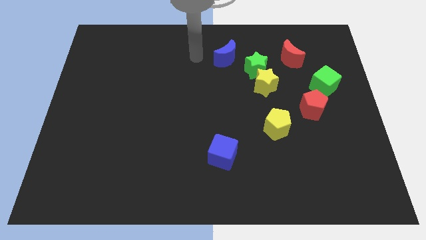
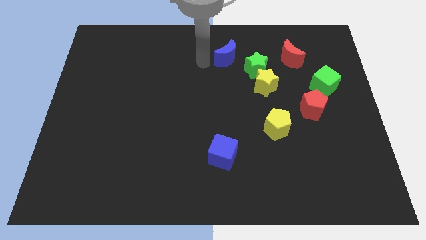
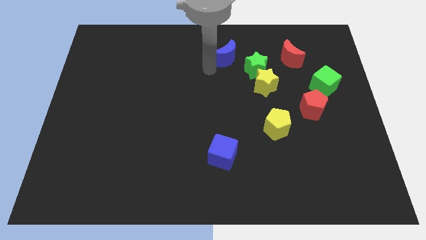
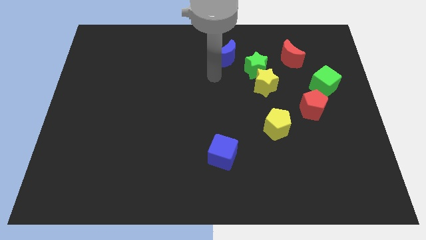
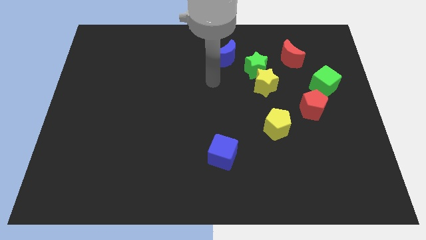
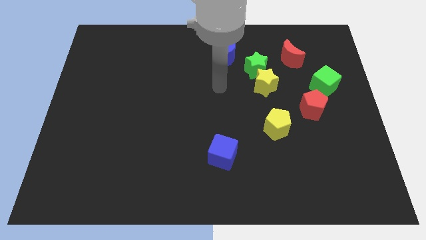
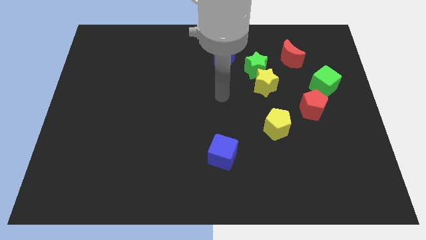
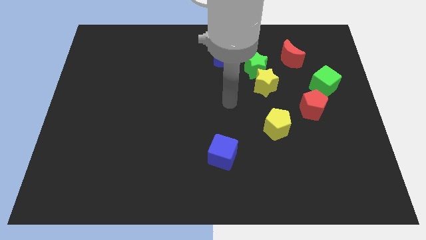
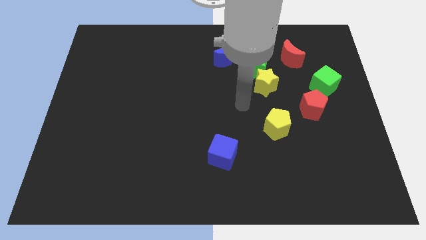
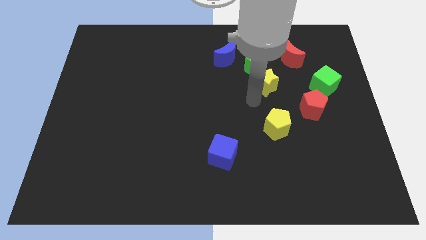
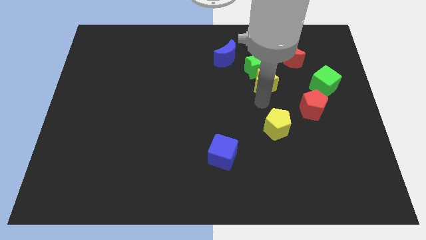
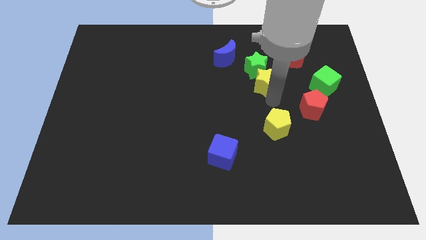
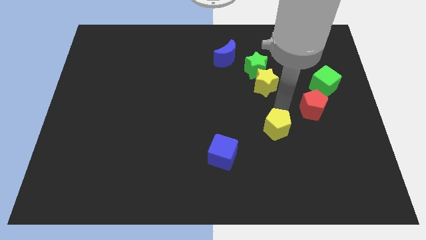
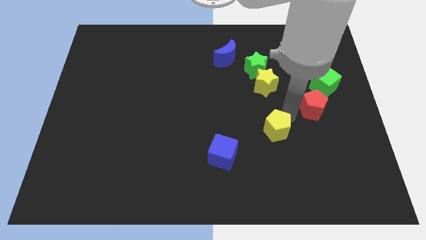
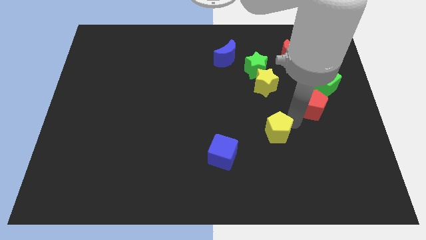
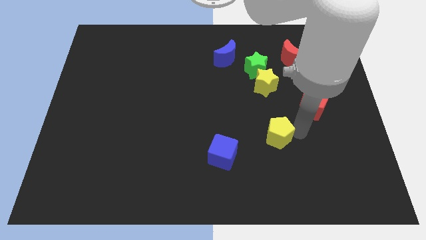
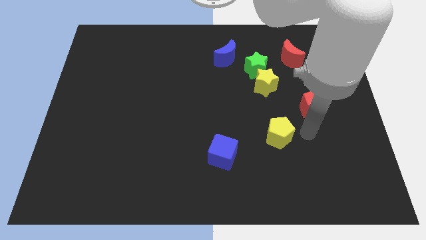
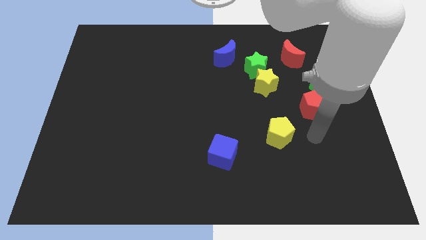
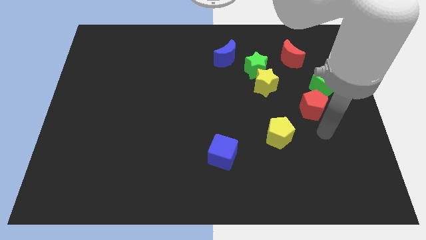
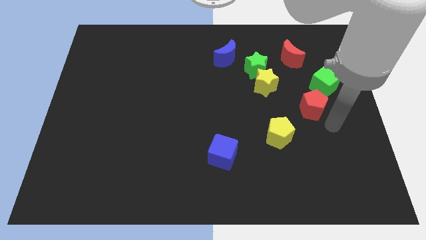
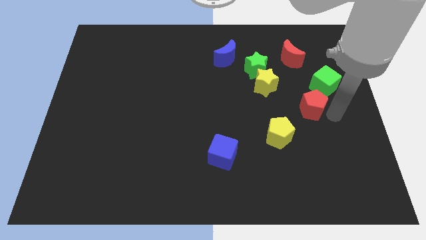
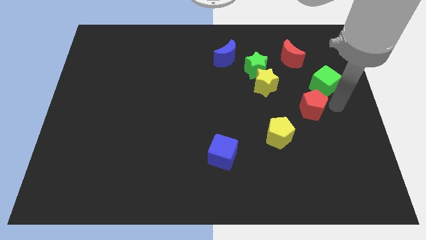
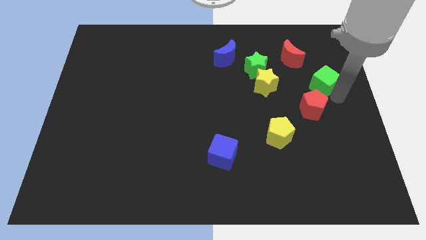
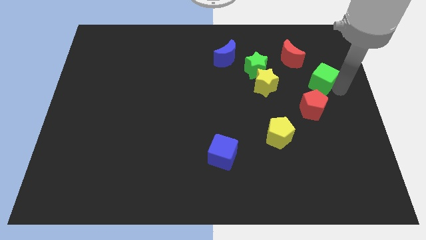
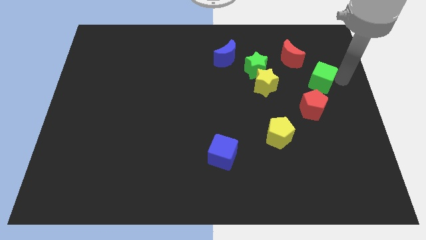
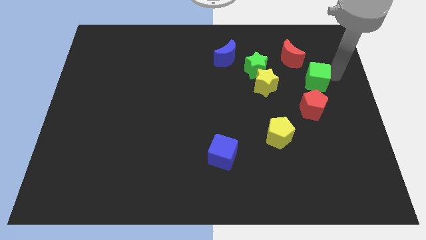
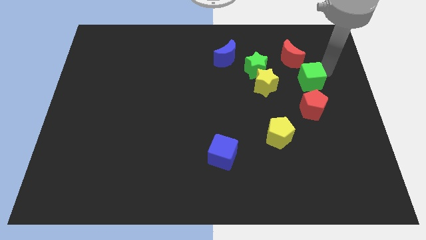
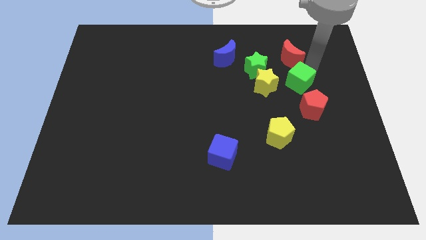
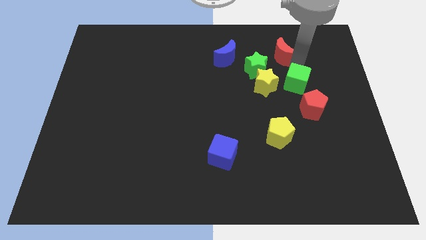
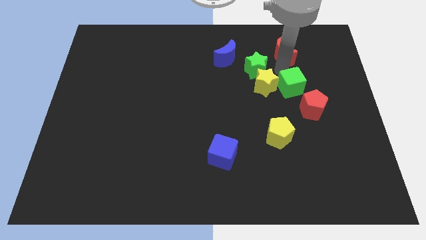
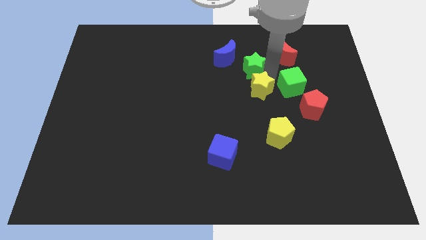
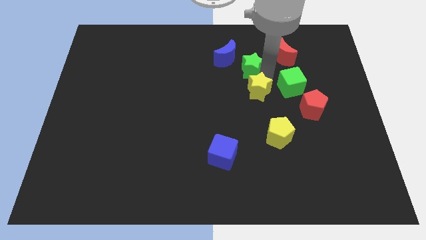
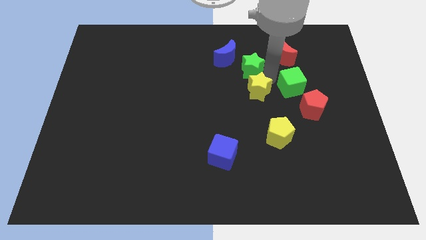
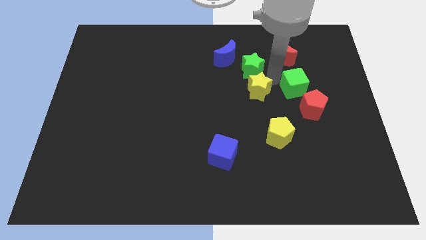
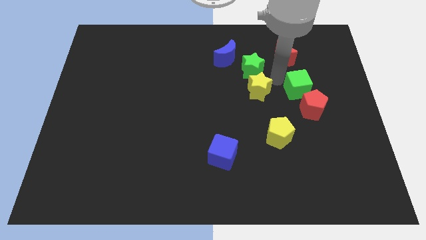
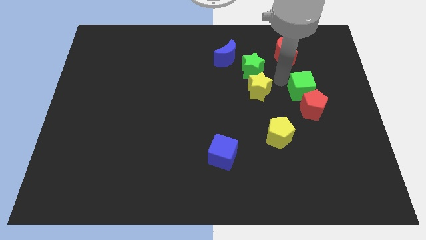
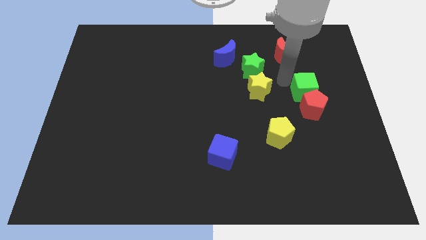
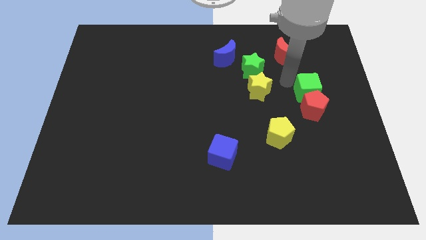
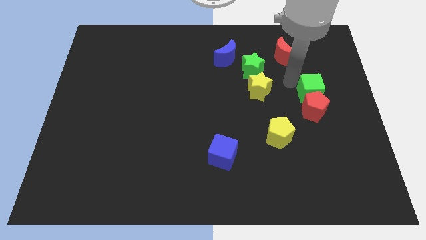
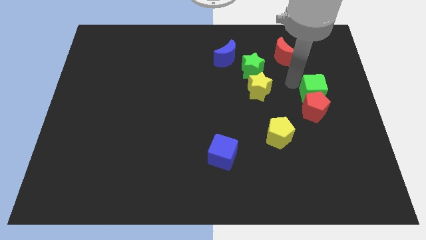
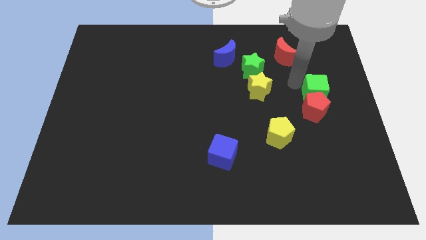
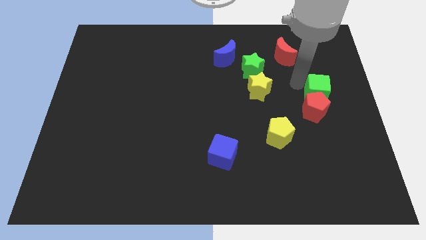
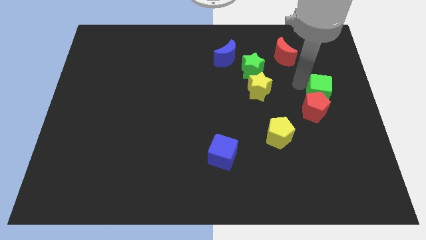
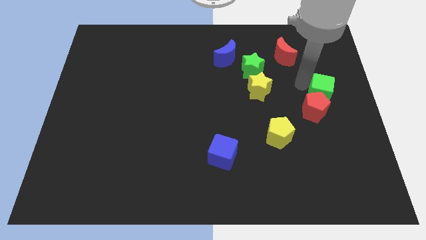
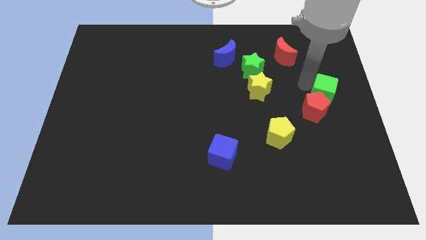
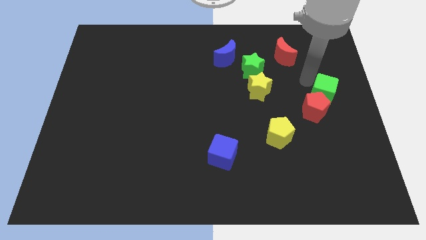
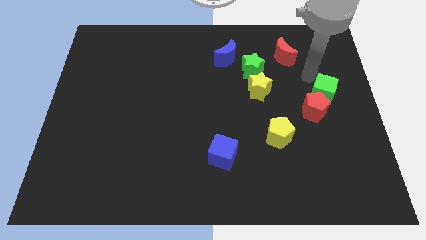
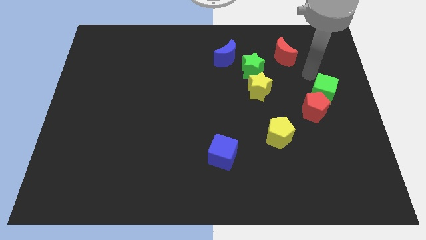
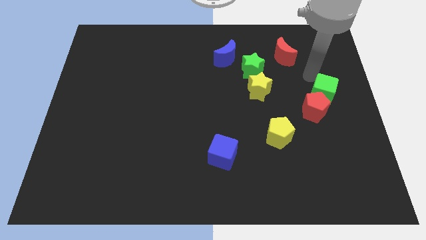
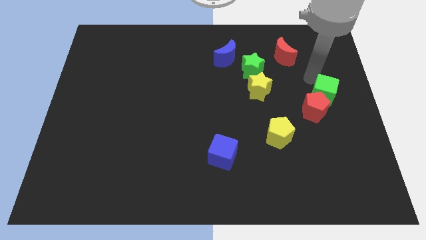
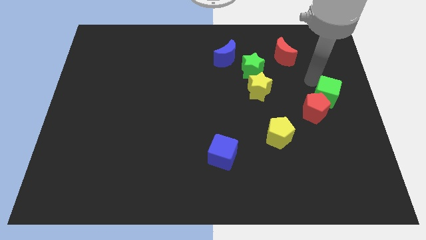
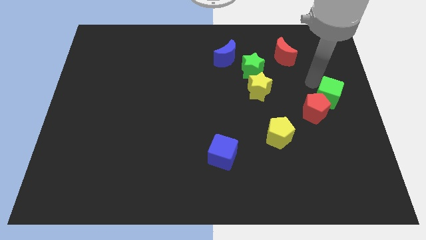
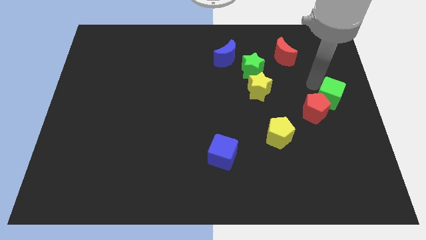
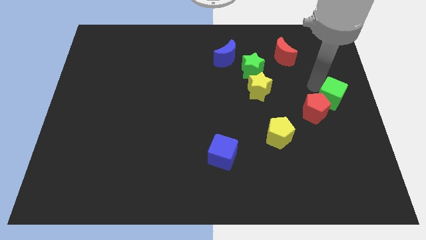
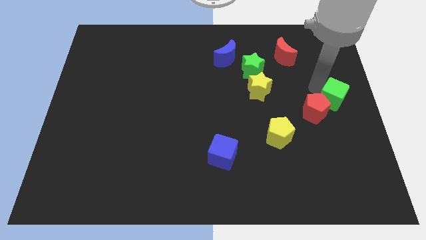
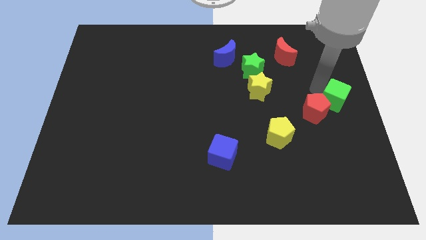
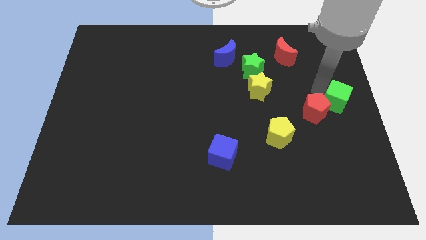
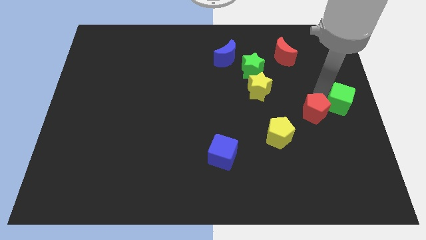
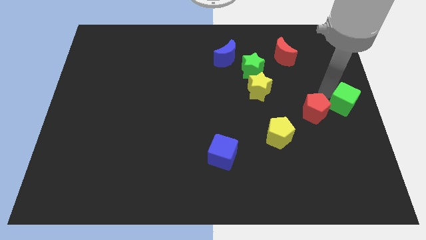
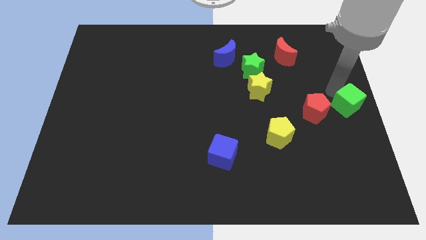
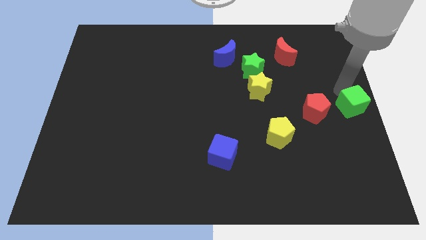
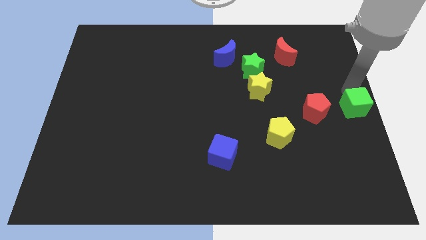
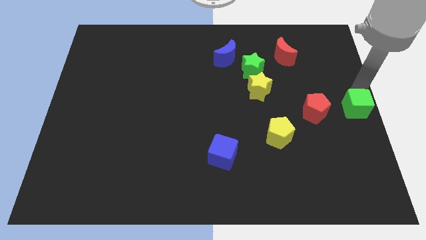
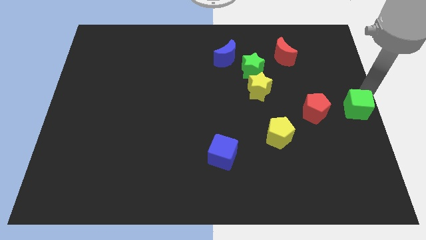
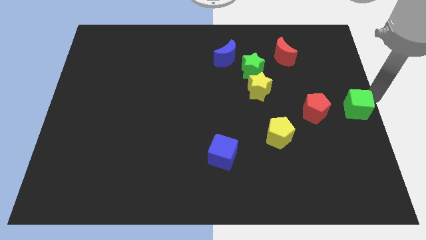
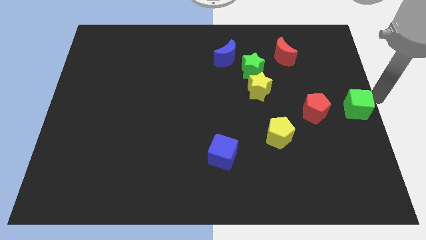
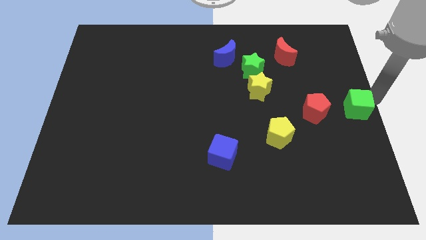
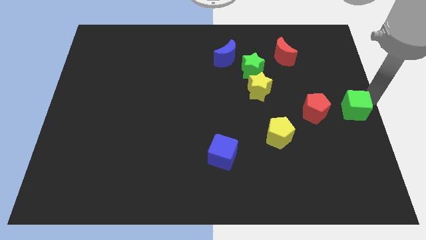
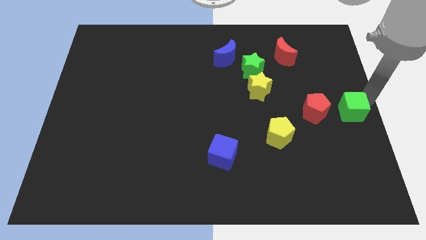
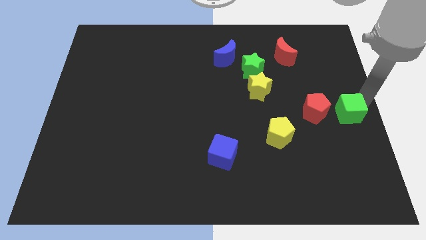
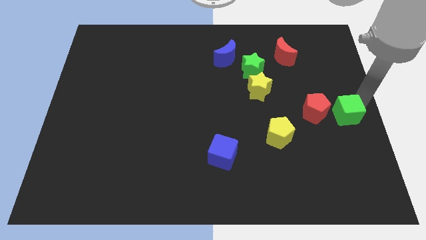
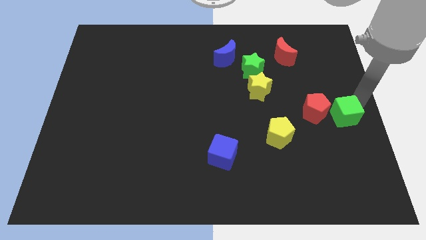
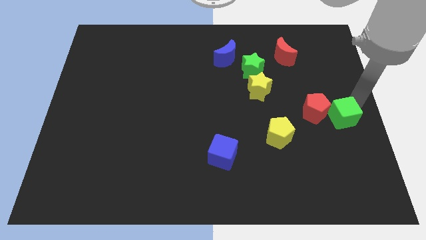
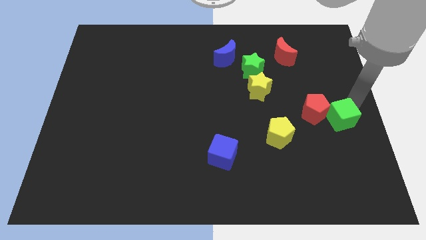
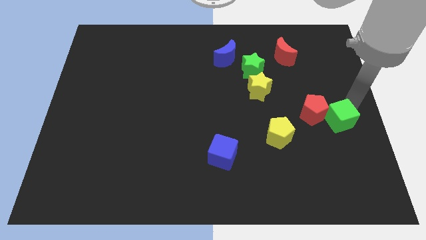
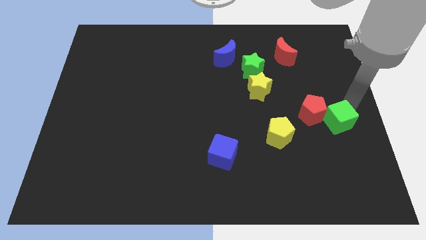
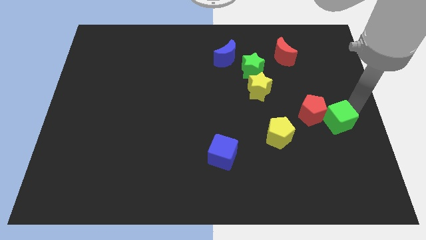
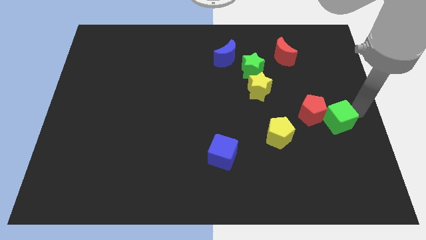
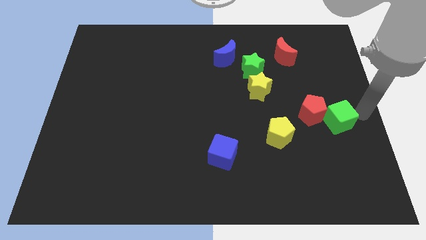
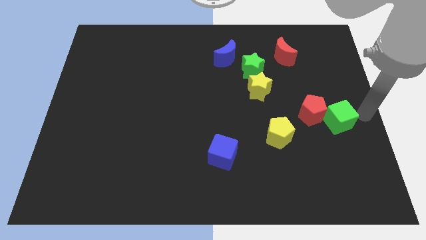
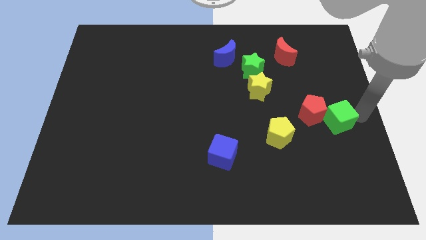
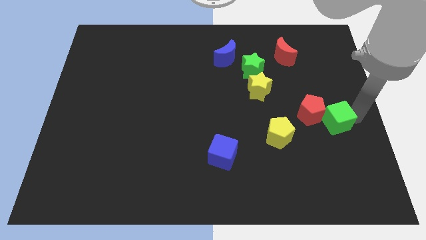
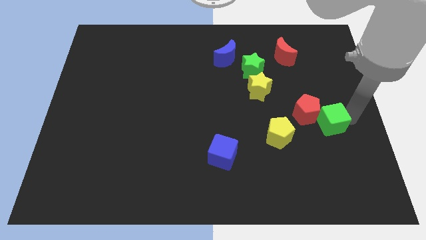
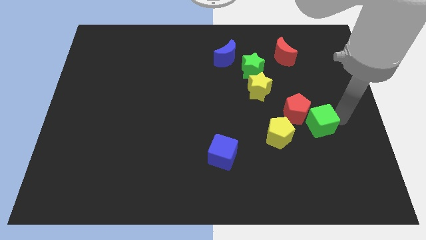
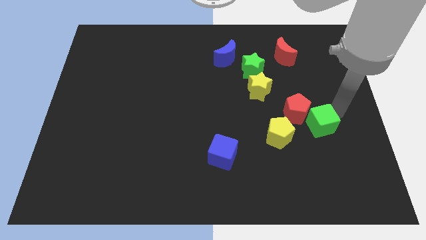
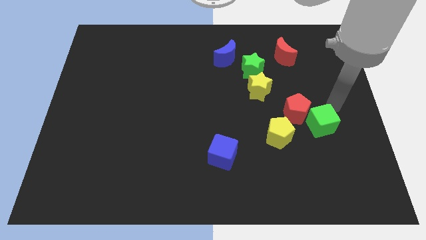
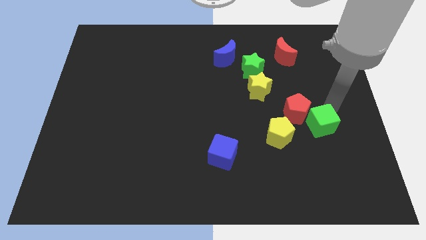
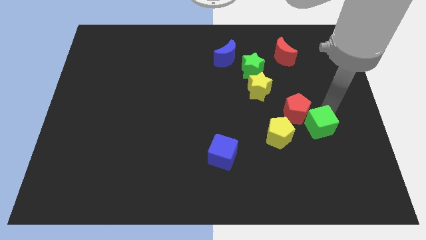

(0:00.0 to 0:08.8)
slide the green cube below the red pentagon
